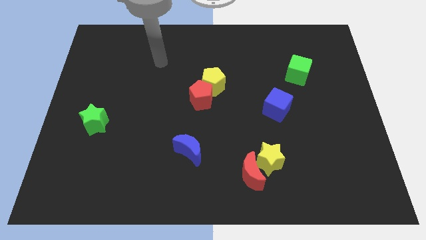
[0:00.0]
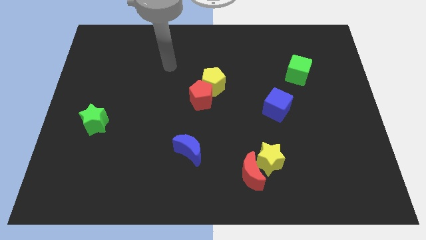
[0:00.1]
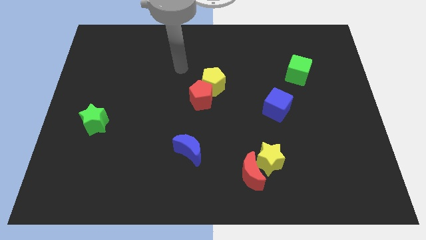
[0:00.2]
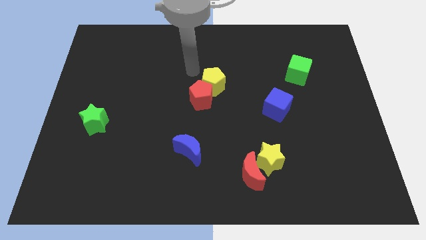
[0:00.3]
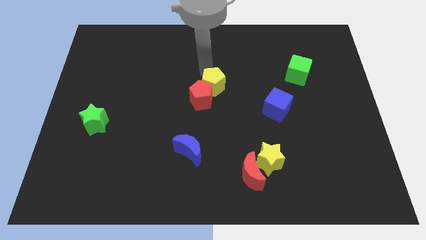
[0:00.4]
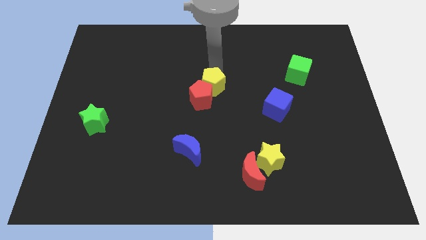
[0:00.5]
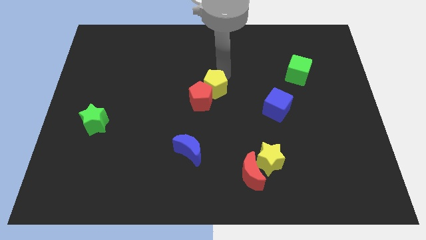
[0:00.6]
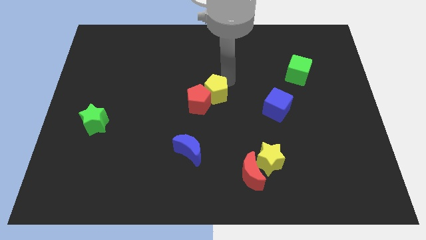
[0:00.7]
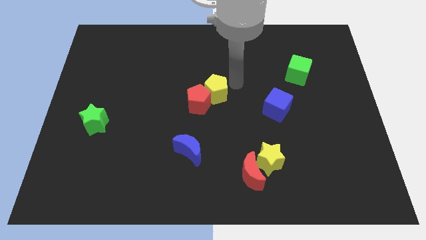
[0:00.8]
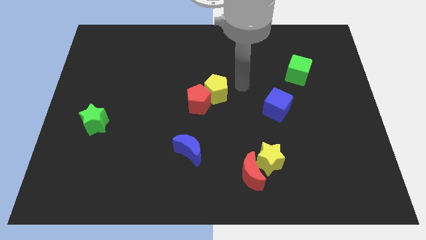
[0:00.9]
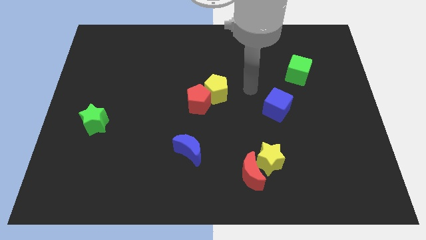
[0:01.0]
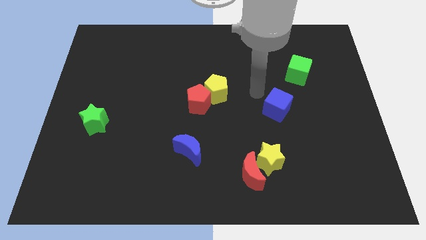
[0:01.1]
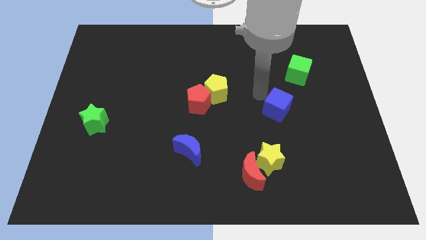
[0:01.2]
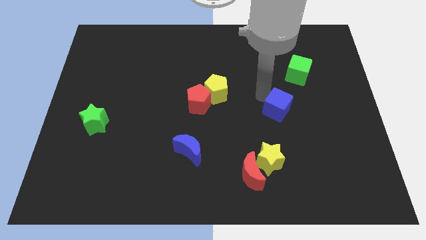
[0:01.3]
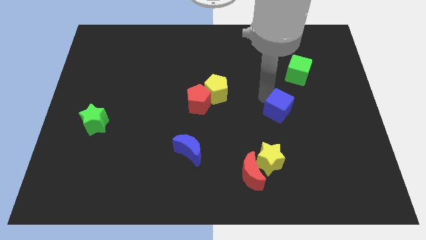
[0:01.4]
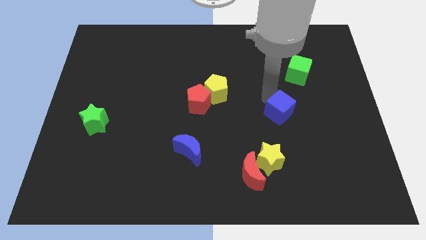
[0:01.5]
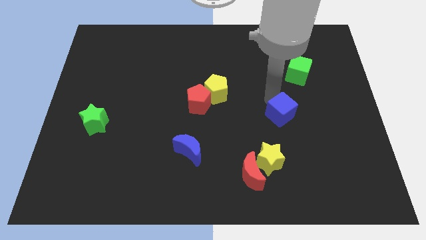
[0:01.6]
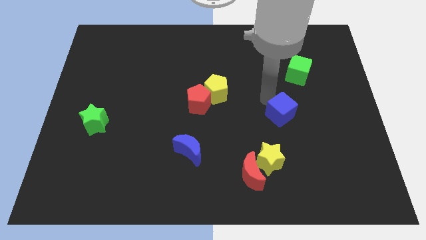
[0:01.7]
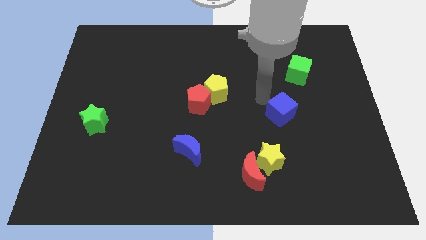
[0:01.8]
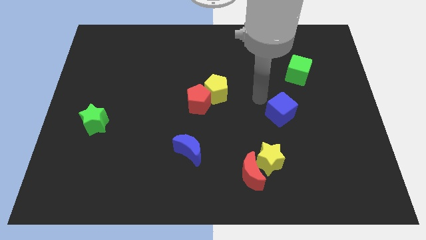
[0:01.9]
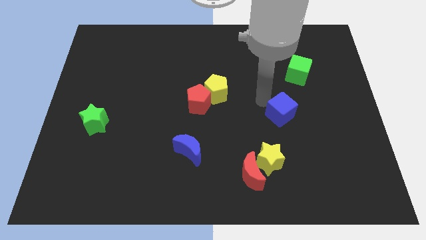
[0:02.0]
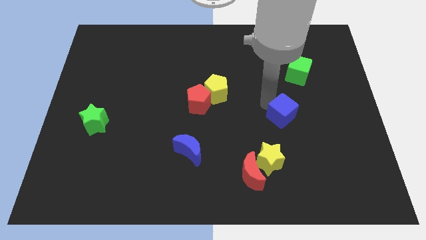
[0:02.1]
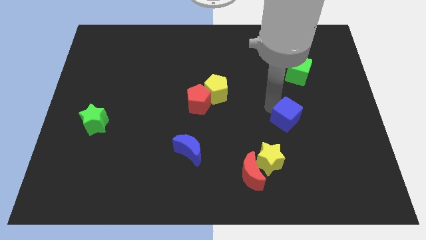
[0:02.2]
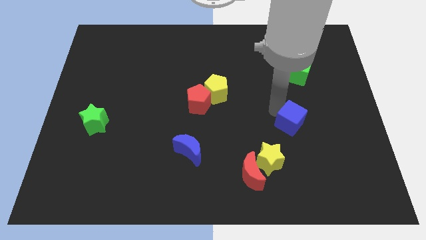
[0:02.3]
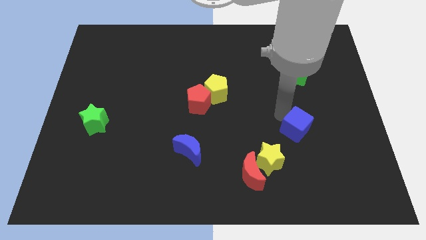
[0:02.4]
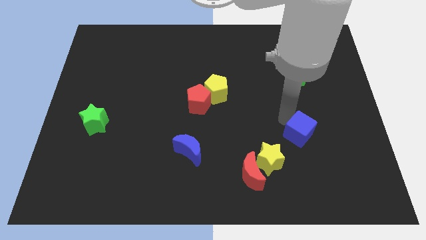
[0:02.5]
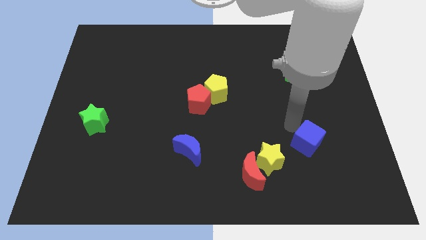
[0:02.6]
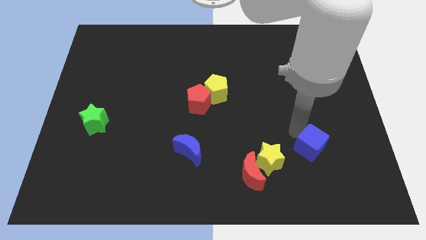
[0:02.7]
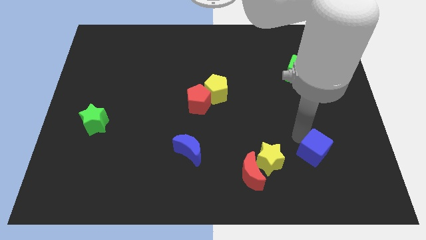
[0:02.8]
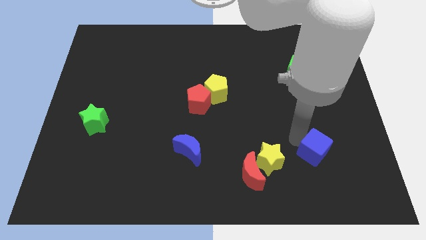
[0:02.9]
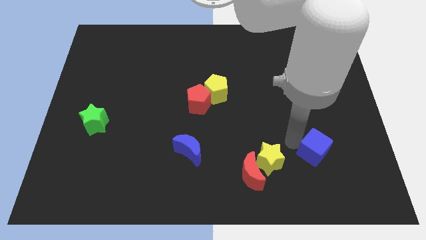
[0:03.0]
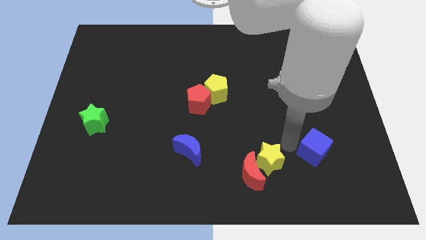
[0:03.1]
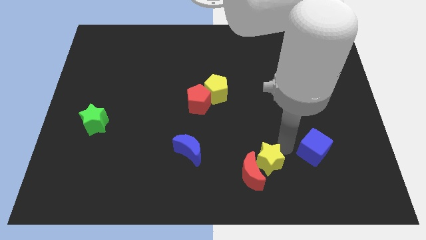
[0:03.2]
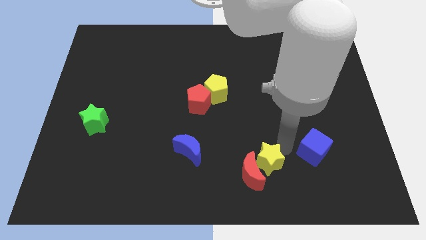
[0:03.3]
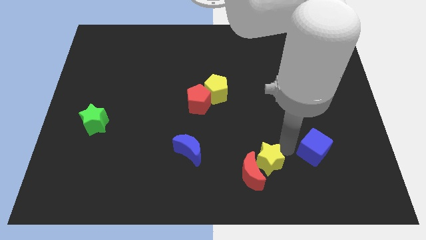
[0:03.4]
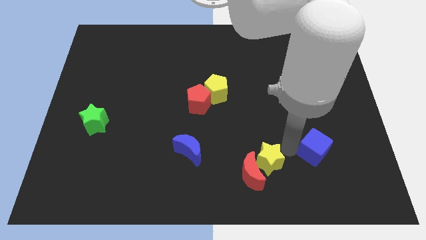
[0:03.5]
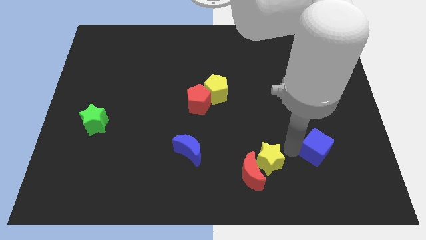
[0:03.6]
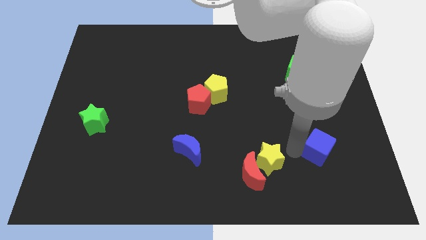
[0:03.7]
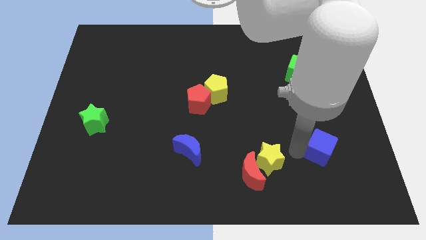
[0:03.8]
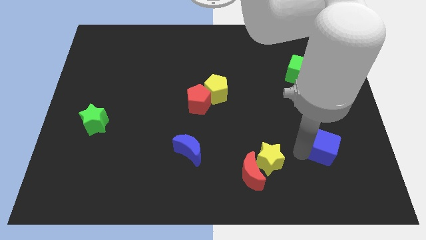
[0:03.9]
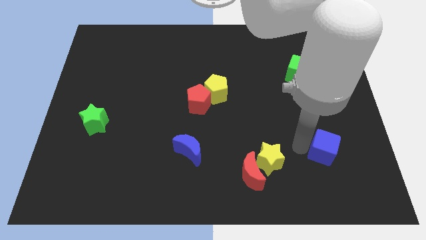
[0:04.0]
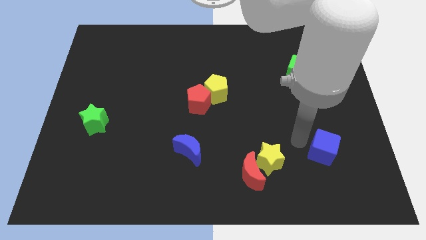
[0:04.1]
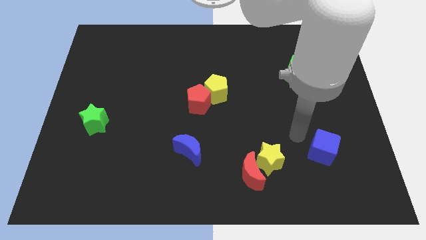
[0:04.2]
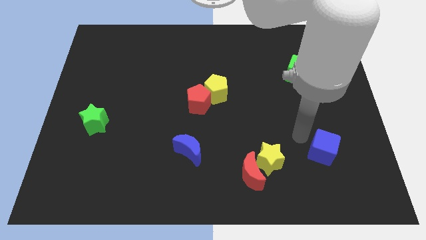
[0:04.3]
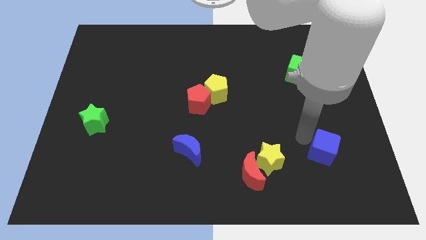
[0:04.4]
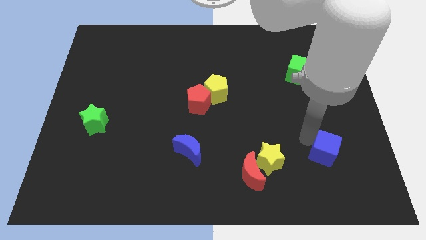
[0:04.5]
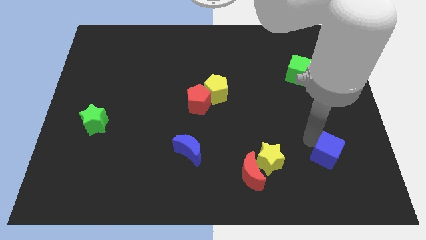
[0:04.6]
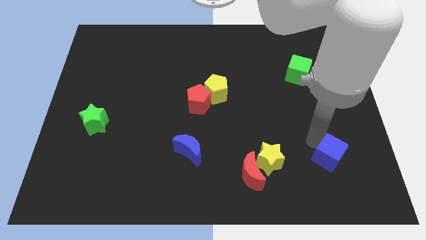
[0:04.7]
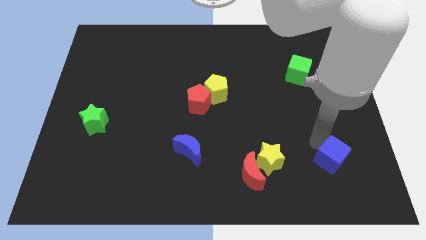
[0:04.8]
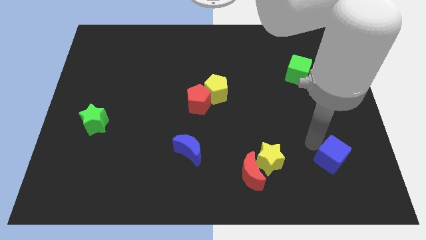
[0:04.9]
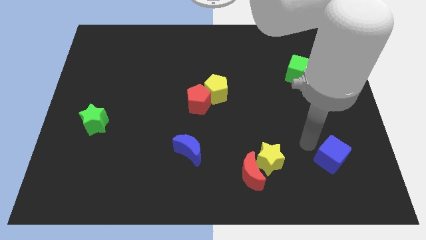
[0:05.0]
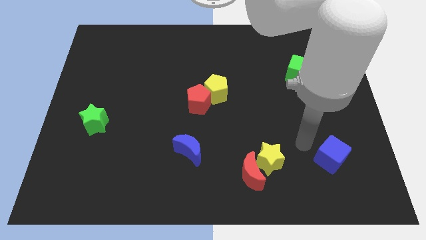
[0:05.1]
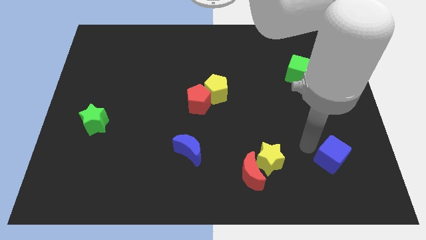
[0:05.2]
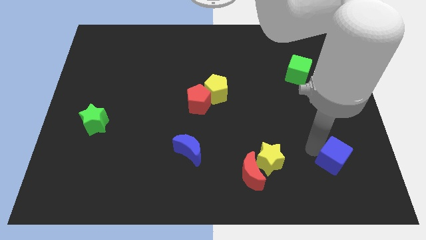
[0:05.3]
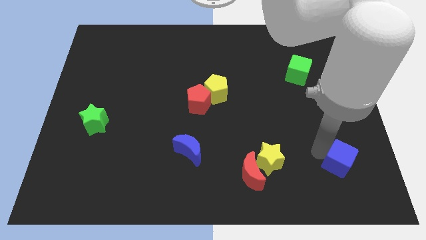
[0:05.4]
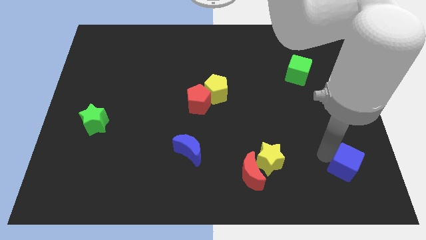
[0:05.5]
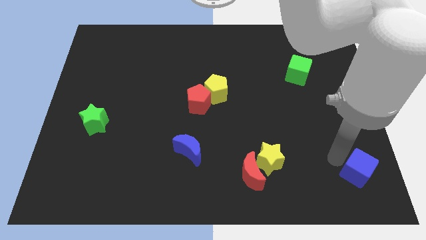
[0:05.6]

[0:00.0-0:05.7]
move the blue cube to the bottom right corner

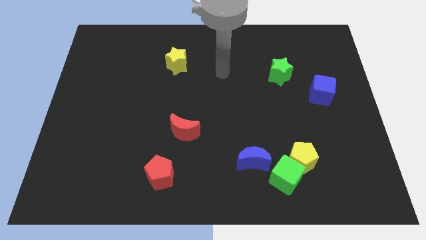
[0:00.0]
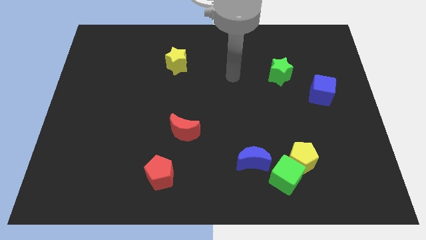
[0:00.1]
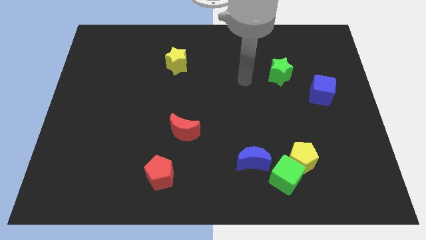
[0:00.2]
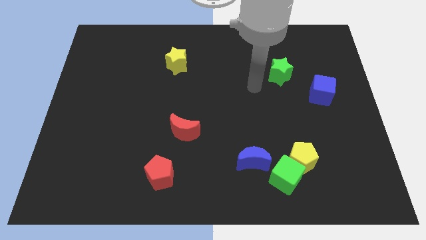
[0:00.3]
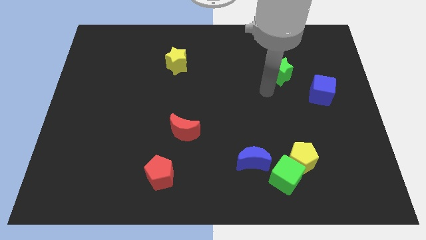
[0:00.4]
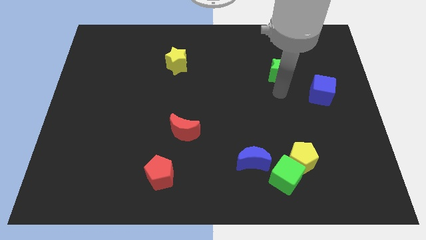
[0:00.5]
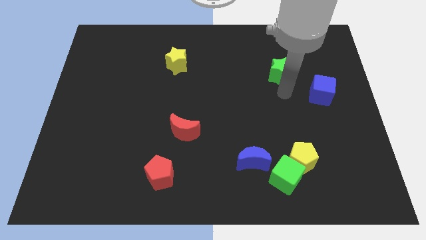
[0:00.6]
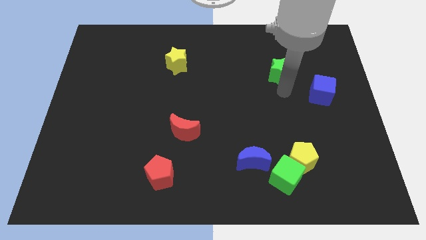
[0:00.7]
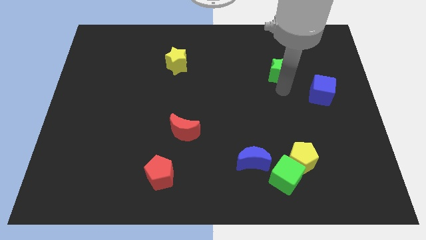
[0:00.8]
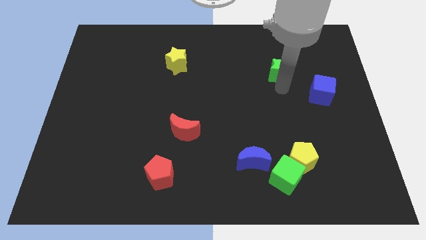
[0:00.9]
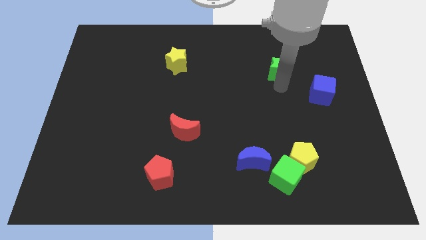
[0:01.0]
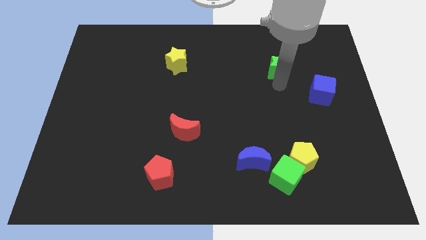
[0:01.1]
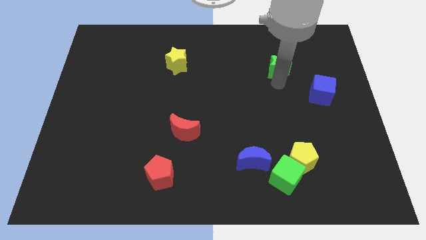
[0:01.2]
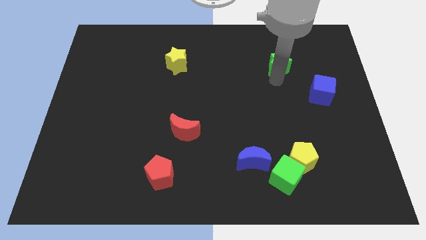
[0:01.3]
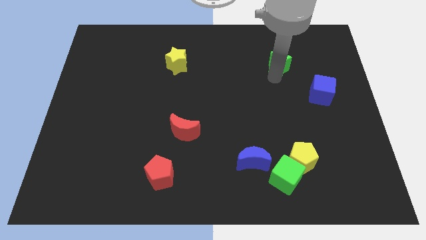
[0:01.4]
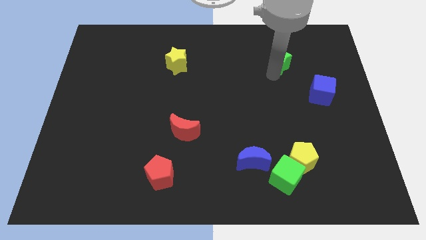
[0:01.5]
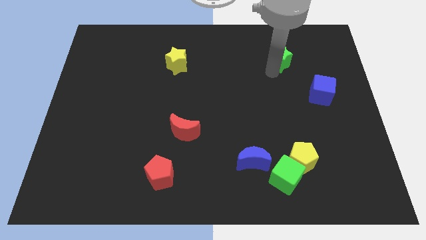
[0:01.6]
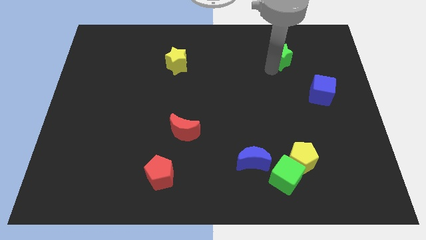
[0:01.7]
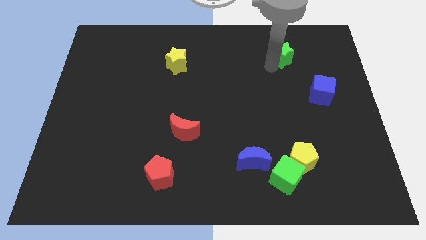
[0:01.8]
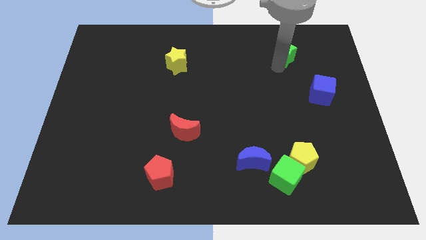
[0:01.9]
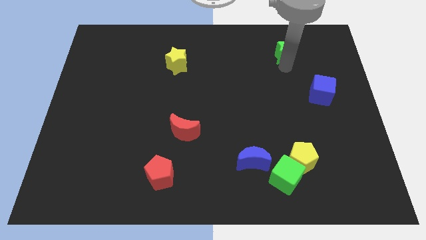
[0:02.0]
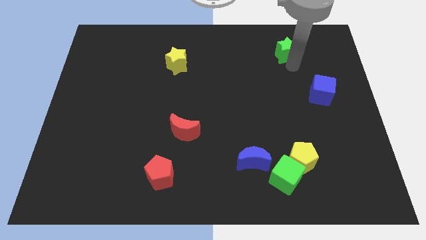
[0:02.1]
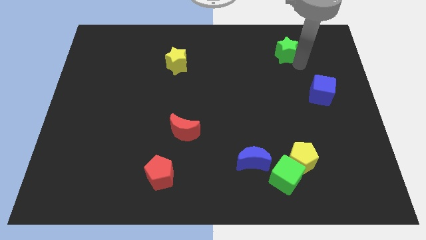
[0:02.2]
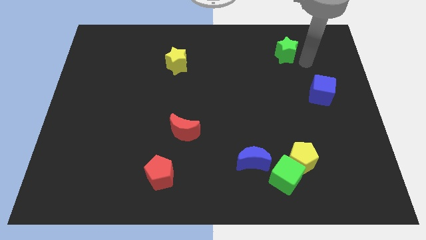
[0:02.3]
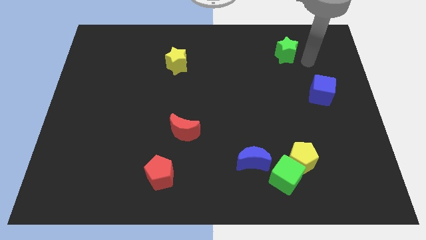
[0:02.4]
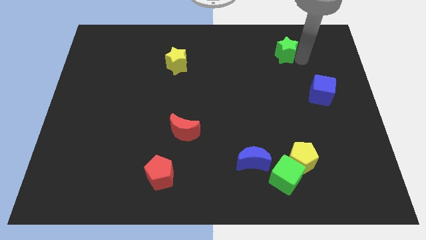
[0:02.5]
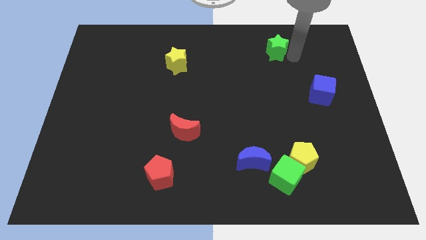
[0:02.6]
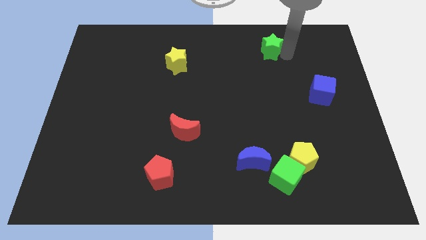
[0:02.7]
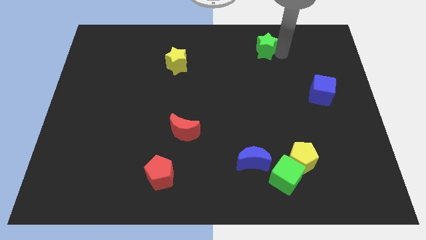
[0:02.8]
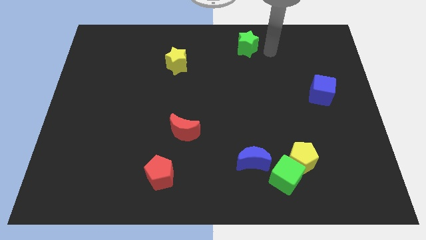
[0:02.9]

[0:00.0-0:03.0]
push the green star to the top
